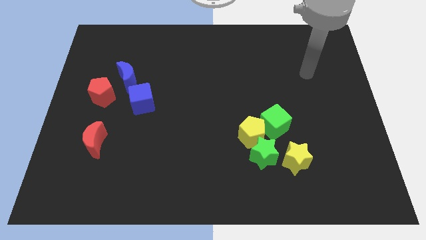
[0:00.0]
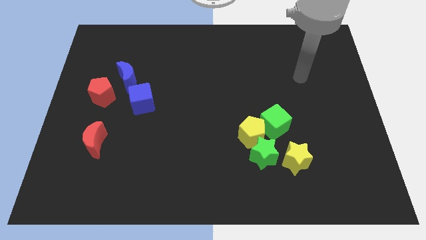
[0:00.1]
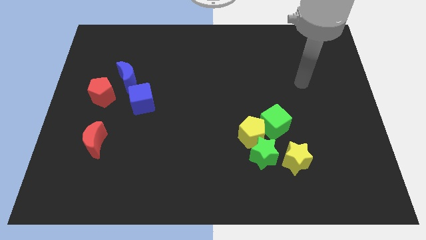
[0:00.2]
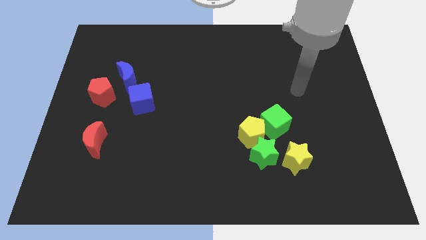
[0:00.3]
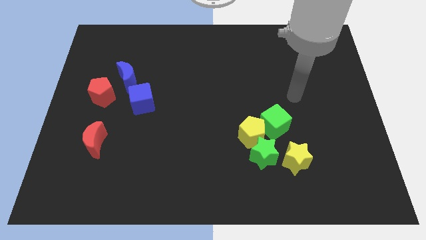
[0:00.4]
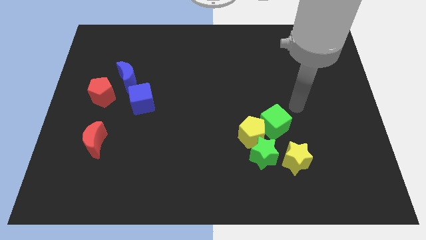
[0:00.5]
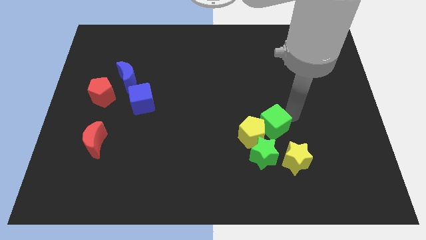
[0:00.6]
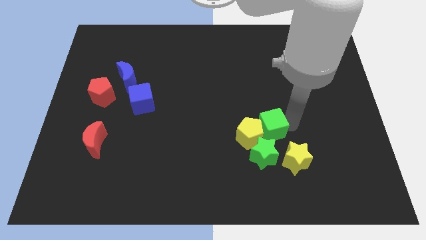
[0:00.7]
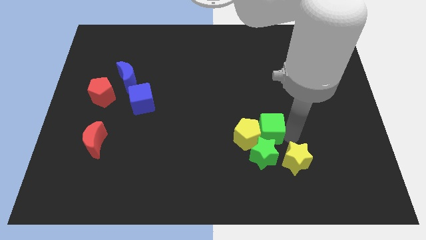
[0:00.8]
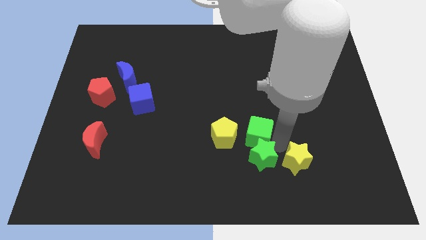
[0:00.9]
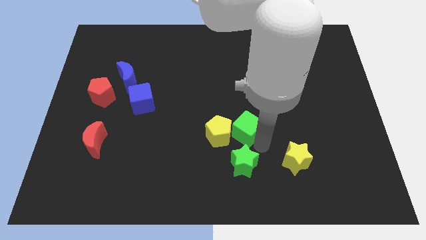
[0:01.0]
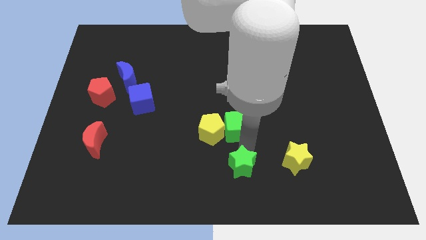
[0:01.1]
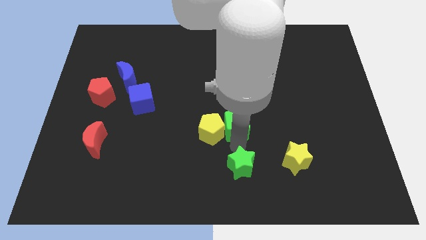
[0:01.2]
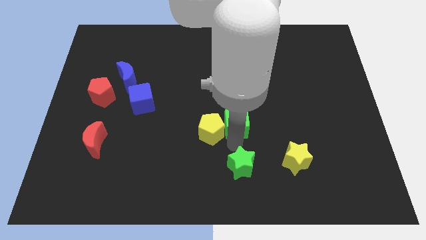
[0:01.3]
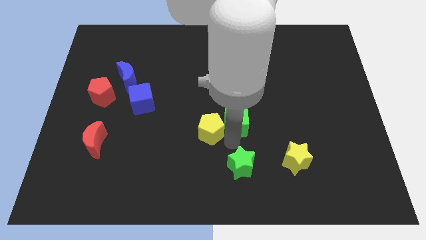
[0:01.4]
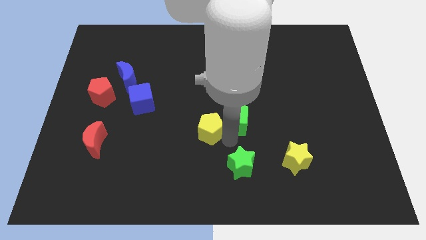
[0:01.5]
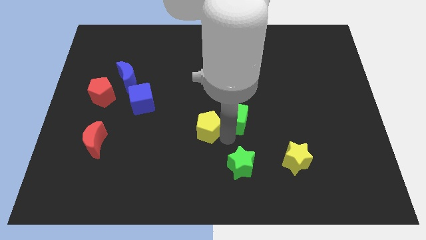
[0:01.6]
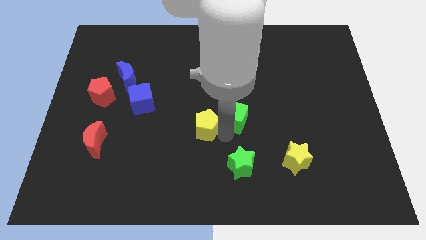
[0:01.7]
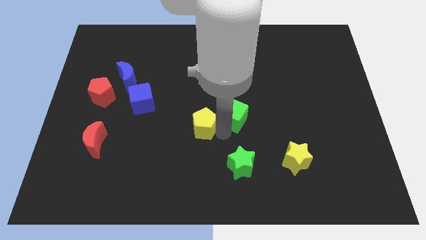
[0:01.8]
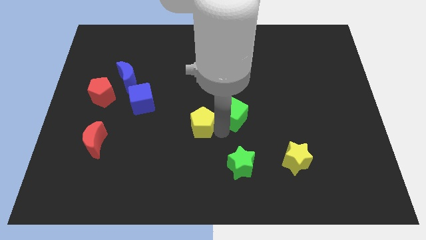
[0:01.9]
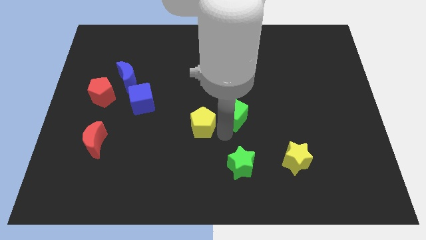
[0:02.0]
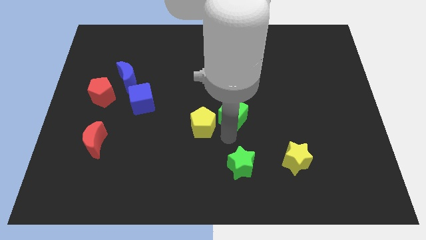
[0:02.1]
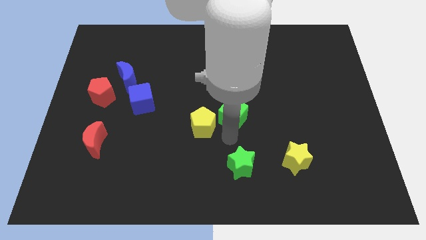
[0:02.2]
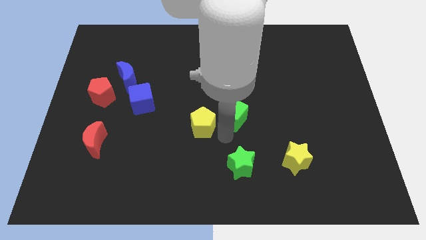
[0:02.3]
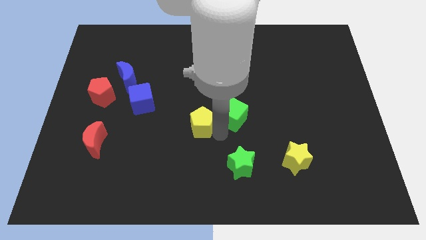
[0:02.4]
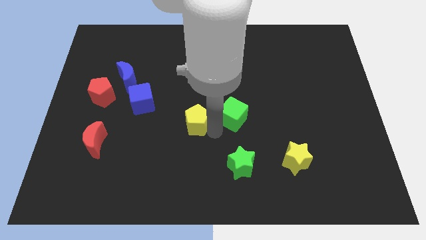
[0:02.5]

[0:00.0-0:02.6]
move the yellow pentagon away from the green star and green cube

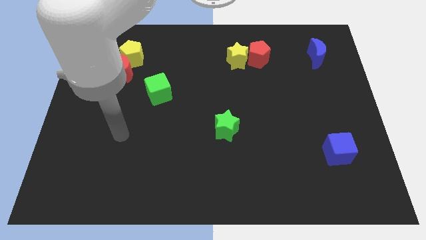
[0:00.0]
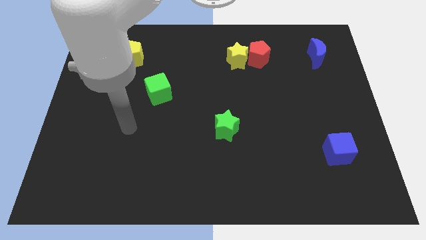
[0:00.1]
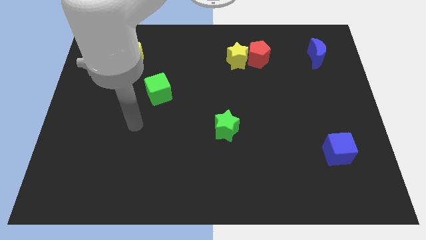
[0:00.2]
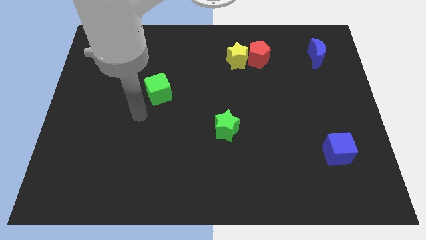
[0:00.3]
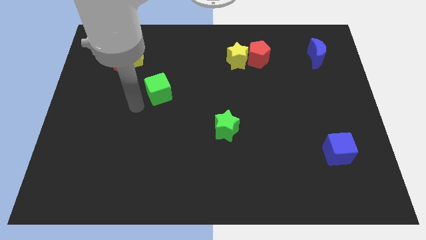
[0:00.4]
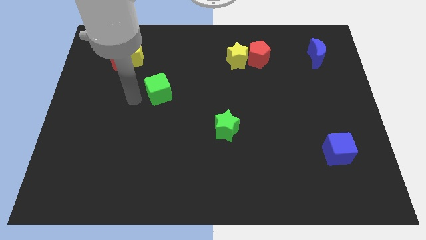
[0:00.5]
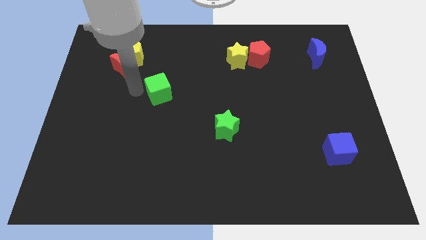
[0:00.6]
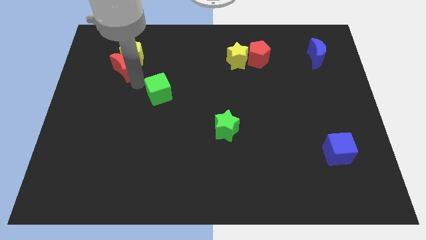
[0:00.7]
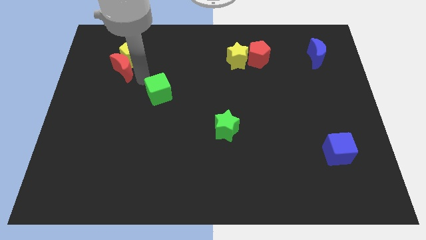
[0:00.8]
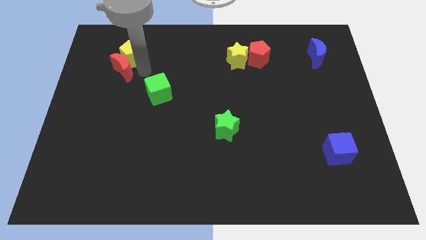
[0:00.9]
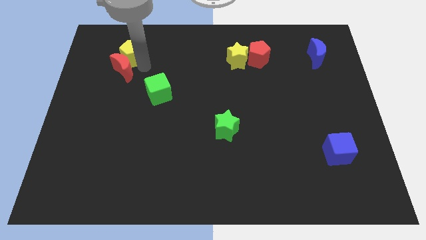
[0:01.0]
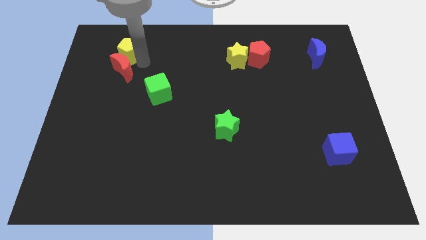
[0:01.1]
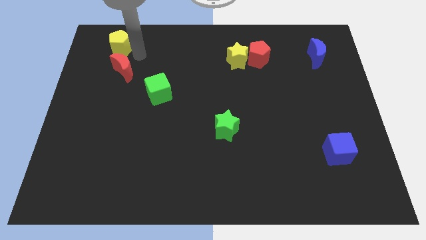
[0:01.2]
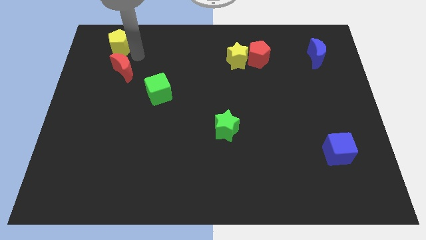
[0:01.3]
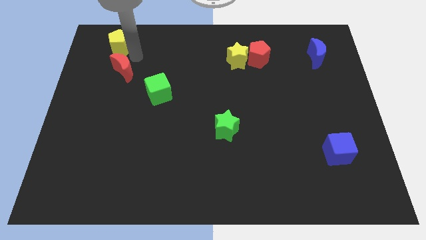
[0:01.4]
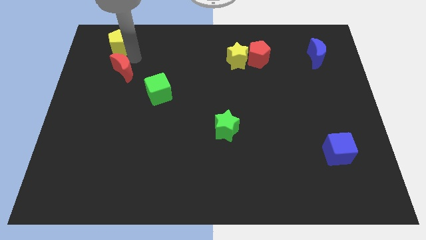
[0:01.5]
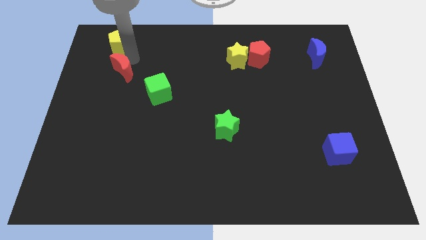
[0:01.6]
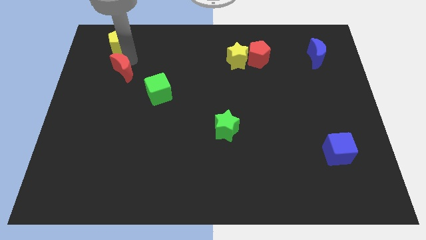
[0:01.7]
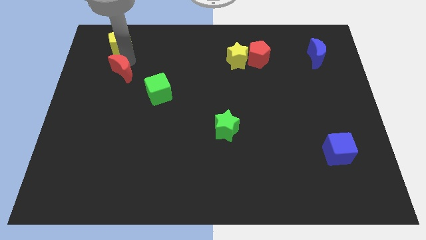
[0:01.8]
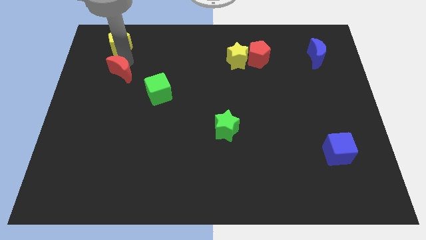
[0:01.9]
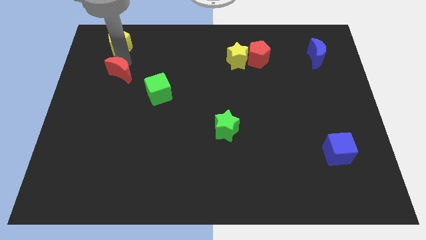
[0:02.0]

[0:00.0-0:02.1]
separate the red moon from the yellow pentagon

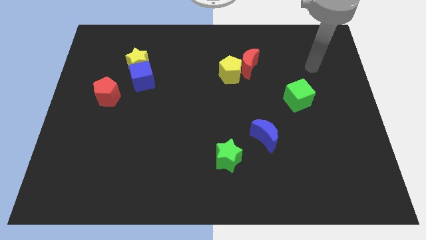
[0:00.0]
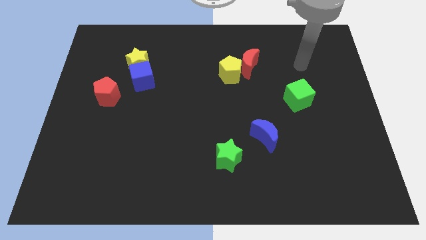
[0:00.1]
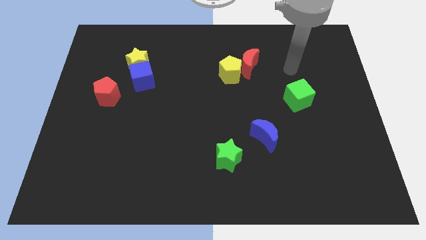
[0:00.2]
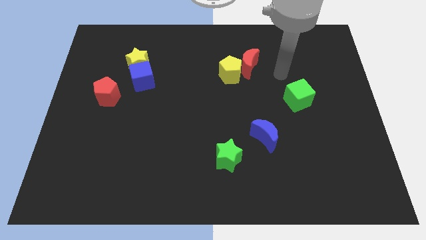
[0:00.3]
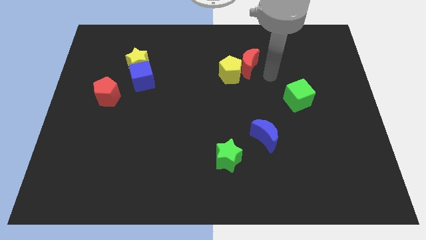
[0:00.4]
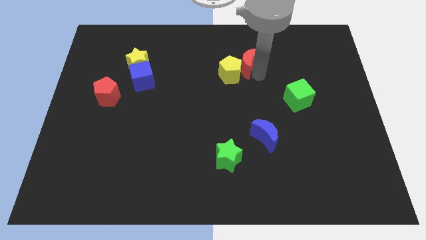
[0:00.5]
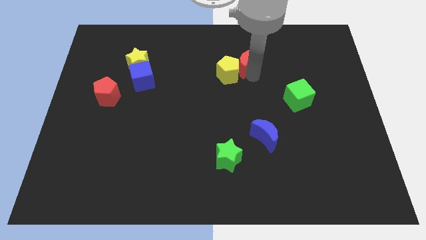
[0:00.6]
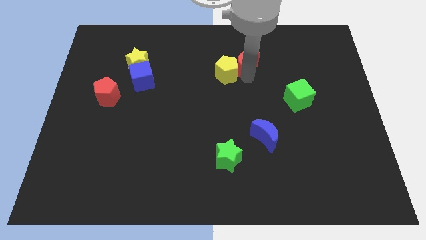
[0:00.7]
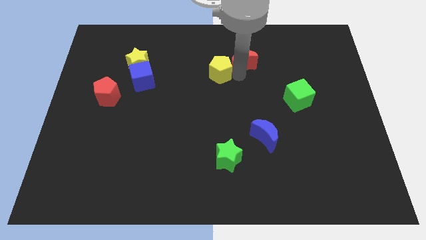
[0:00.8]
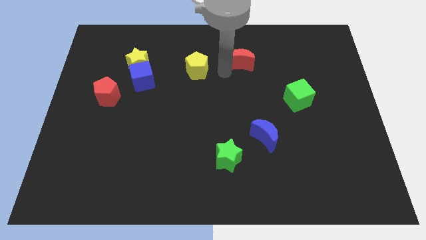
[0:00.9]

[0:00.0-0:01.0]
move the red moon away from the yellow pentagon

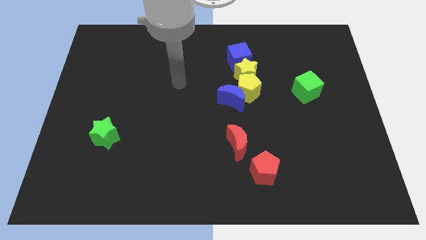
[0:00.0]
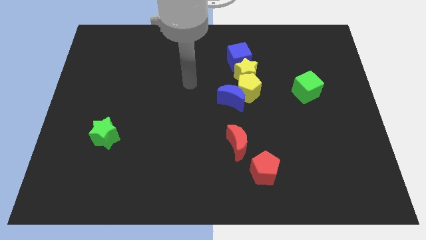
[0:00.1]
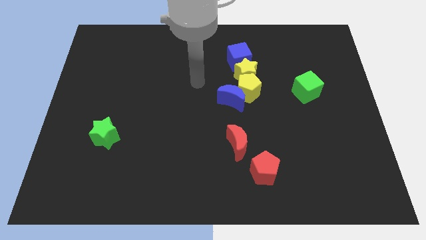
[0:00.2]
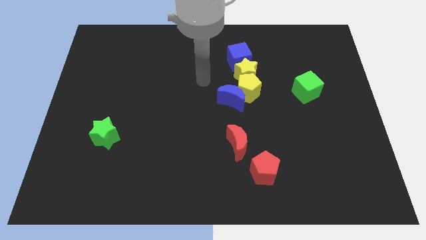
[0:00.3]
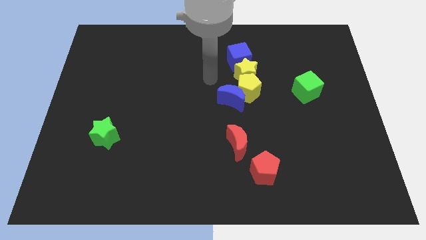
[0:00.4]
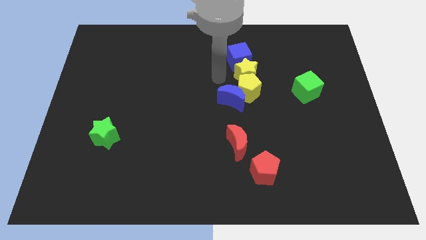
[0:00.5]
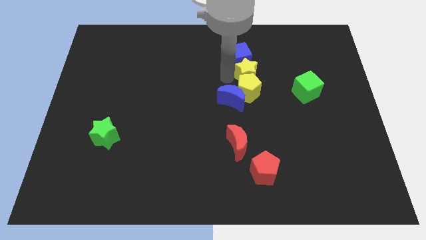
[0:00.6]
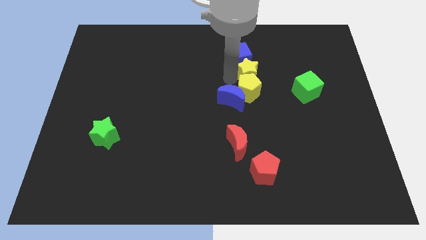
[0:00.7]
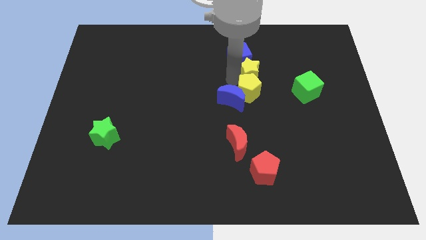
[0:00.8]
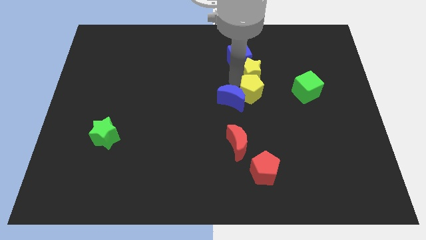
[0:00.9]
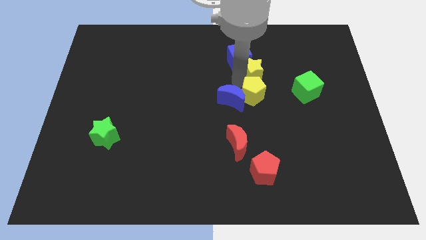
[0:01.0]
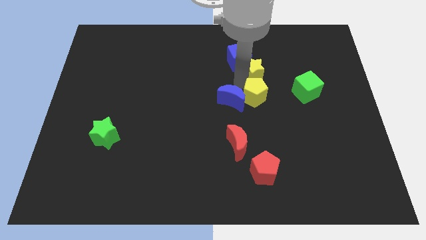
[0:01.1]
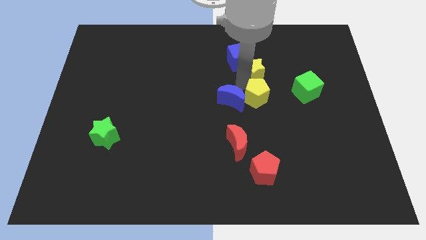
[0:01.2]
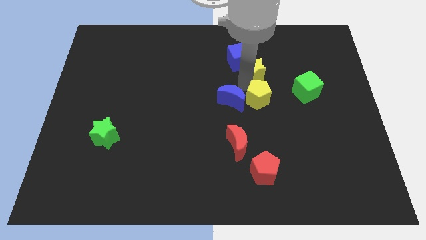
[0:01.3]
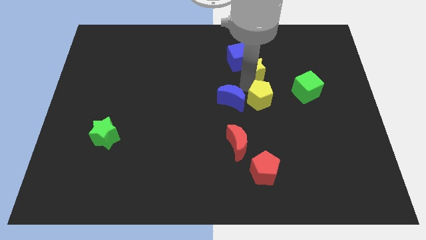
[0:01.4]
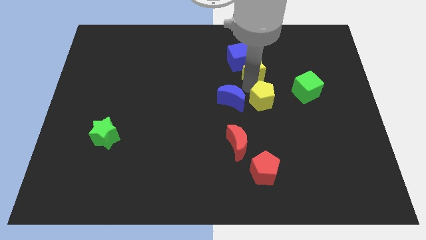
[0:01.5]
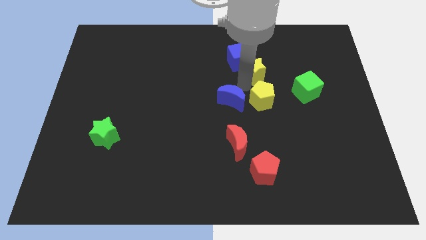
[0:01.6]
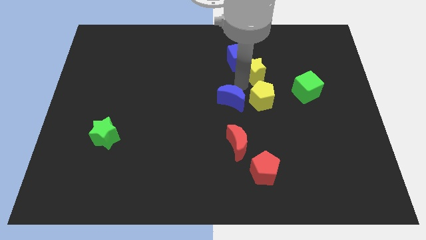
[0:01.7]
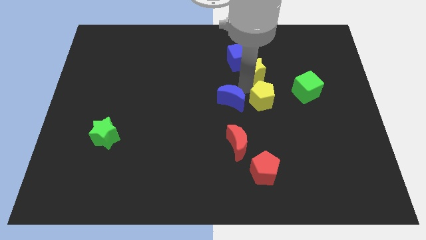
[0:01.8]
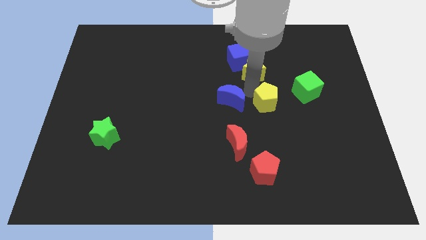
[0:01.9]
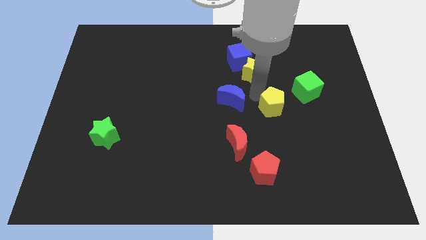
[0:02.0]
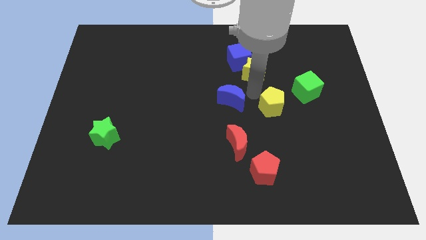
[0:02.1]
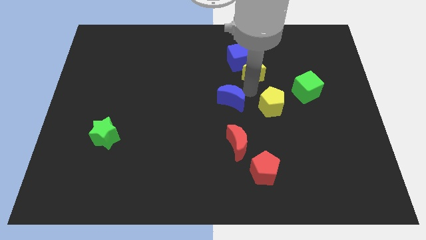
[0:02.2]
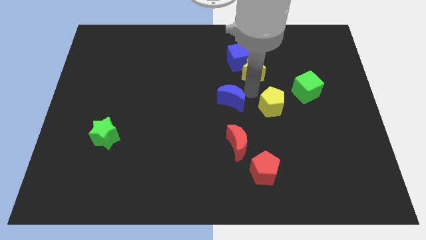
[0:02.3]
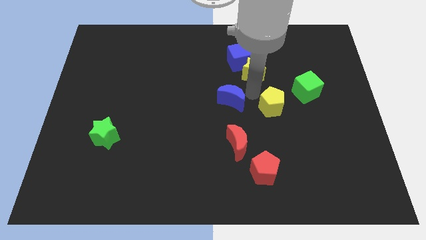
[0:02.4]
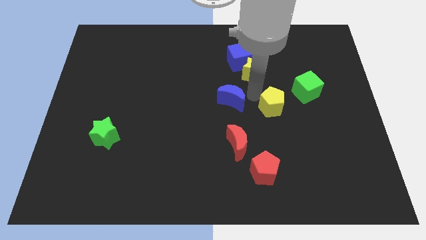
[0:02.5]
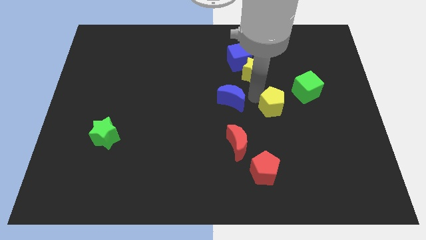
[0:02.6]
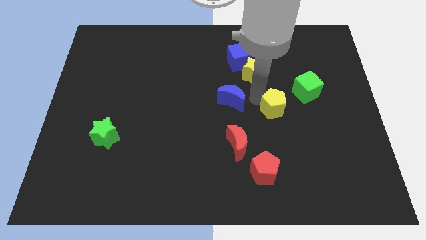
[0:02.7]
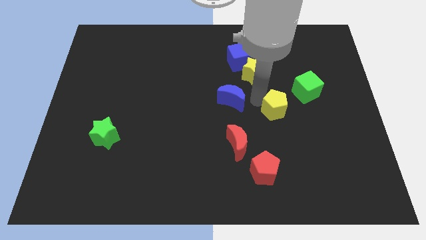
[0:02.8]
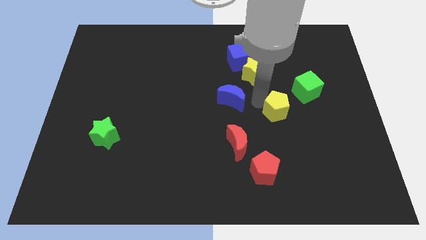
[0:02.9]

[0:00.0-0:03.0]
pull the yellow pentagon apart from the blue moon and yellow star

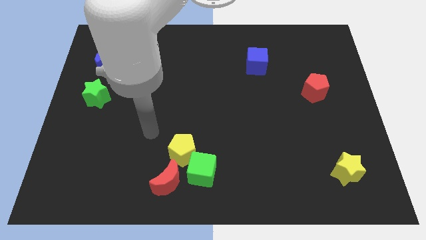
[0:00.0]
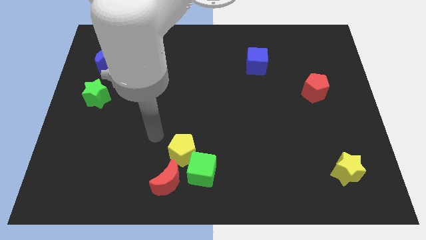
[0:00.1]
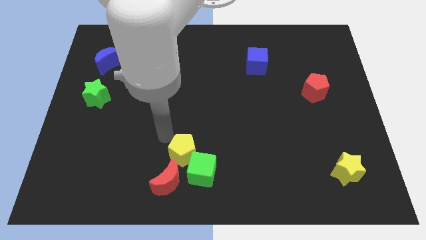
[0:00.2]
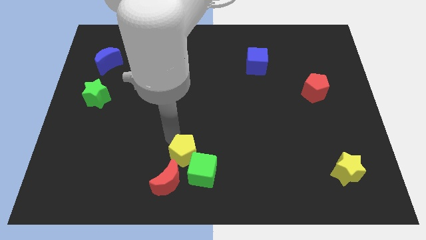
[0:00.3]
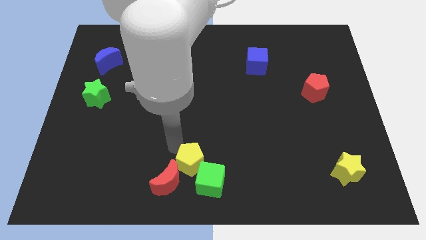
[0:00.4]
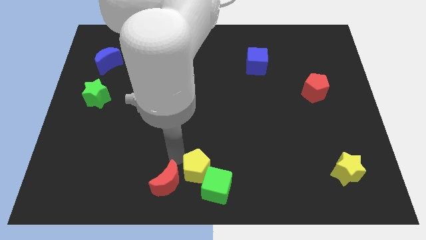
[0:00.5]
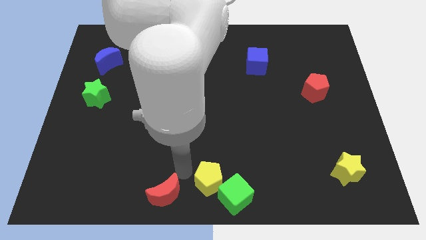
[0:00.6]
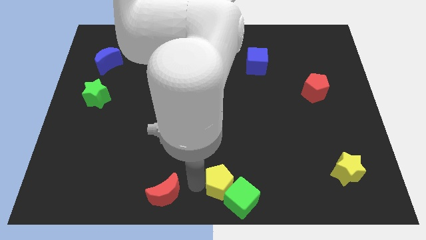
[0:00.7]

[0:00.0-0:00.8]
separate the green cube from the yellow pentagon and red moon
